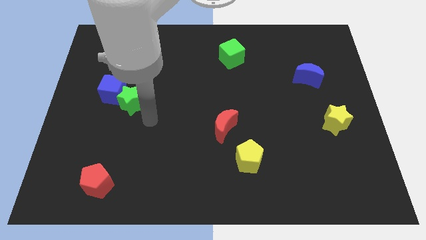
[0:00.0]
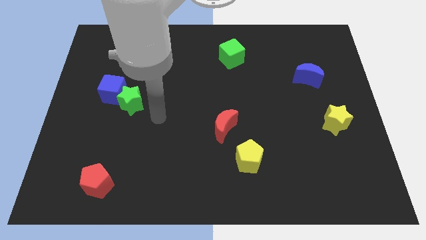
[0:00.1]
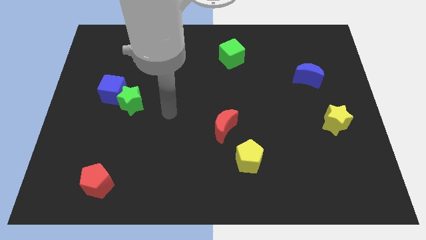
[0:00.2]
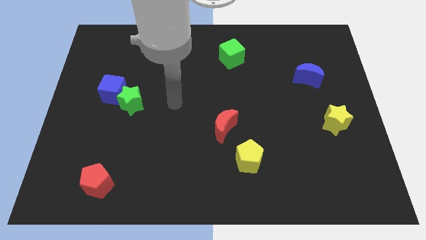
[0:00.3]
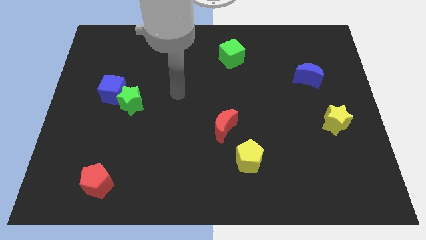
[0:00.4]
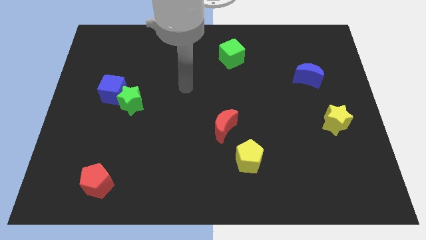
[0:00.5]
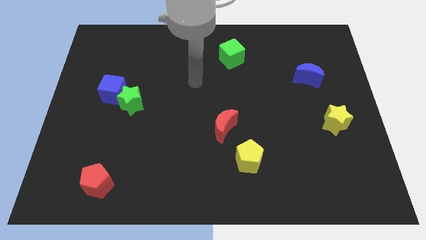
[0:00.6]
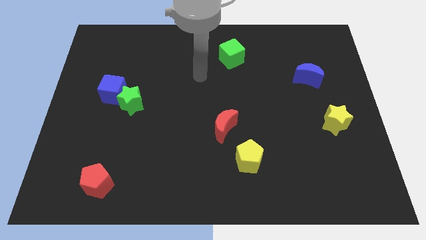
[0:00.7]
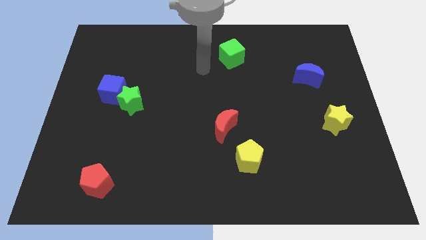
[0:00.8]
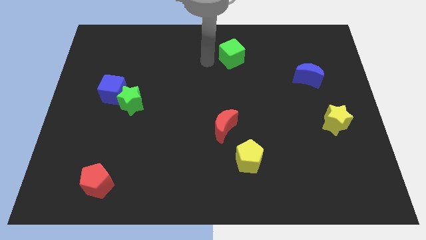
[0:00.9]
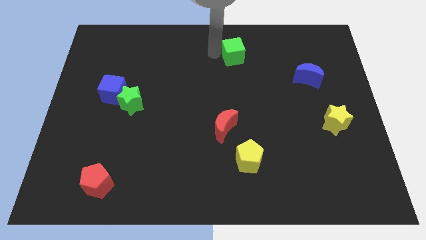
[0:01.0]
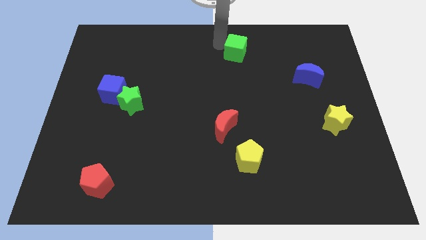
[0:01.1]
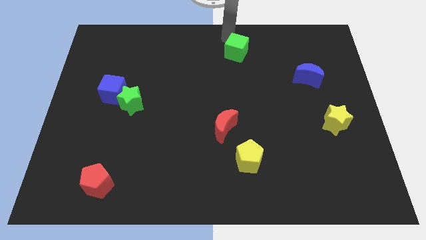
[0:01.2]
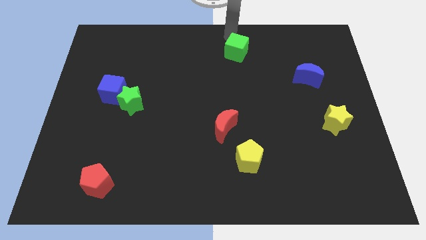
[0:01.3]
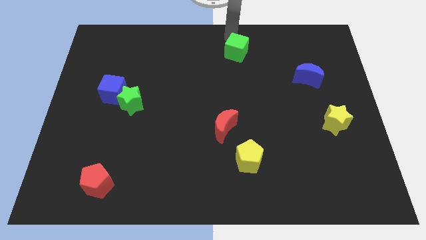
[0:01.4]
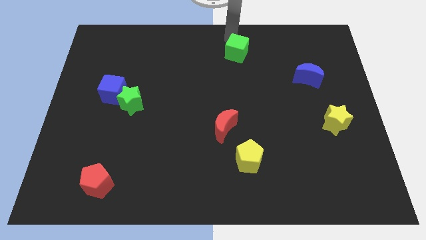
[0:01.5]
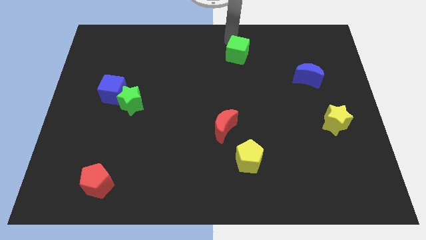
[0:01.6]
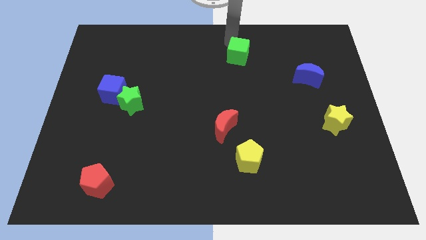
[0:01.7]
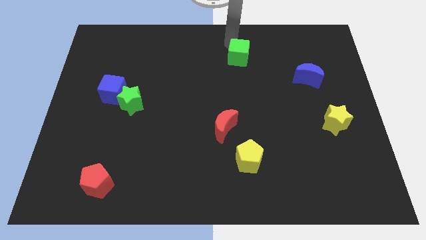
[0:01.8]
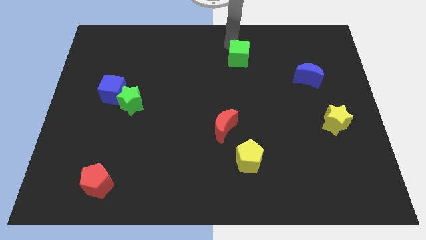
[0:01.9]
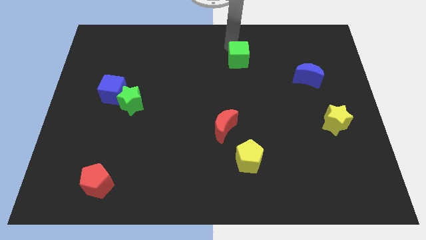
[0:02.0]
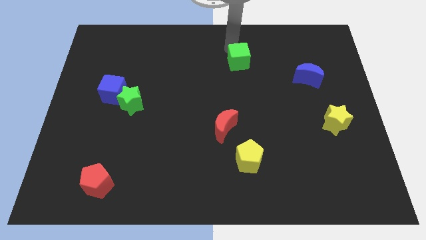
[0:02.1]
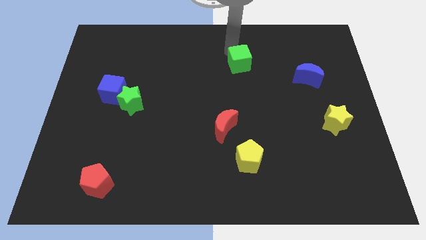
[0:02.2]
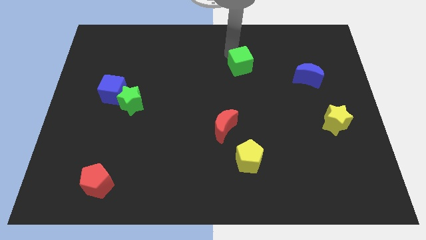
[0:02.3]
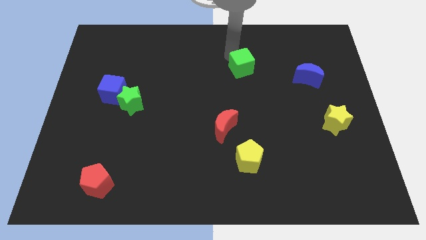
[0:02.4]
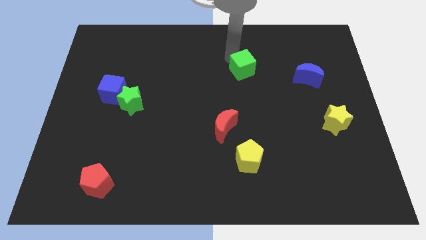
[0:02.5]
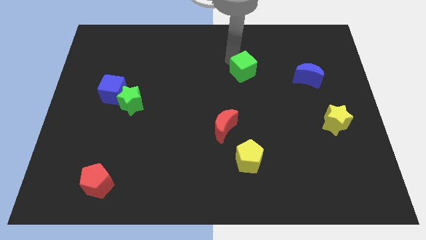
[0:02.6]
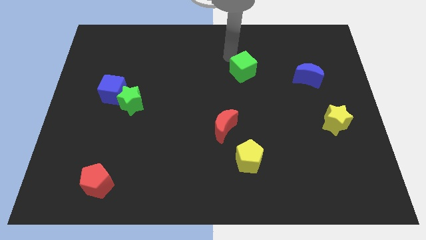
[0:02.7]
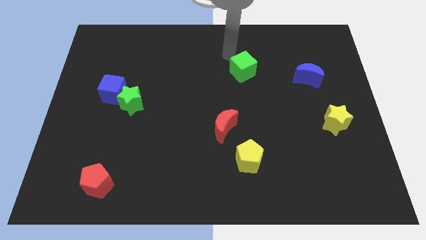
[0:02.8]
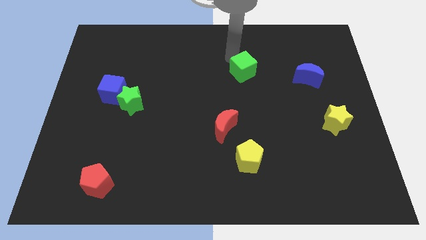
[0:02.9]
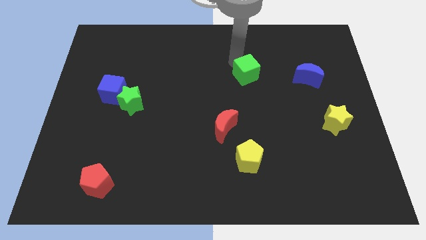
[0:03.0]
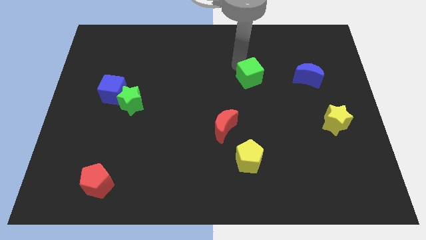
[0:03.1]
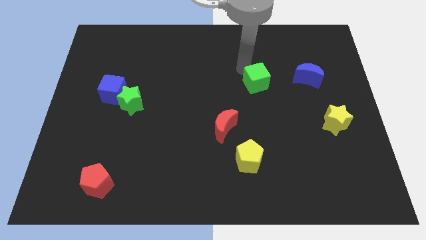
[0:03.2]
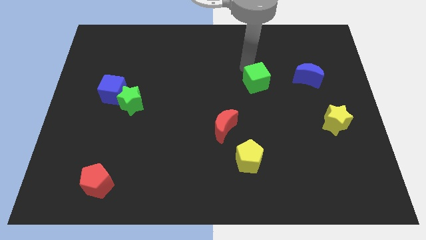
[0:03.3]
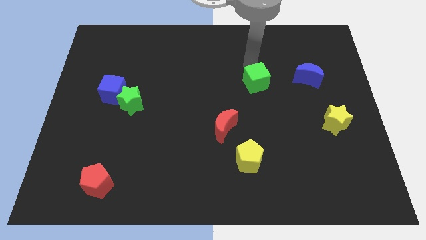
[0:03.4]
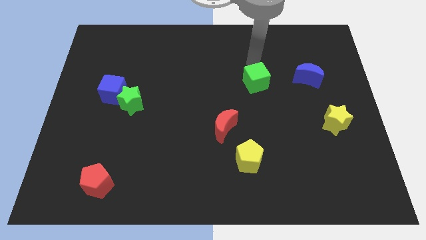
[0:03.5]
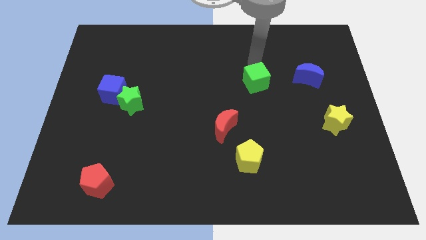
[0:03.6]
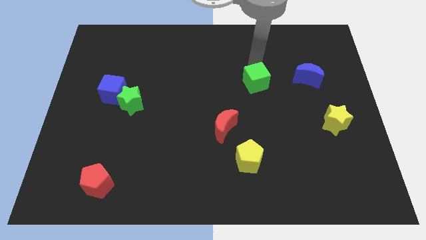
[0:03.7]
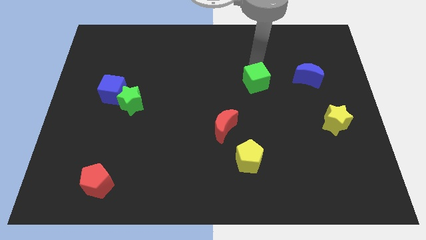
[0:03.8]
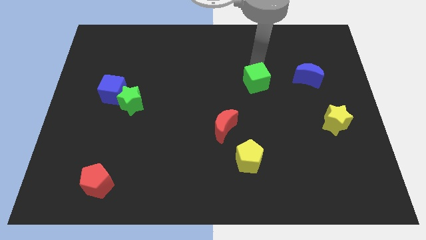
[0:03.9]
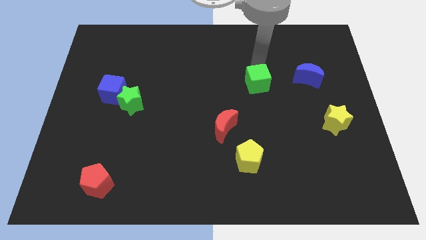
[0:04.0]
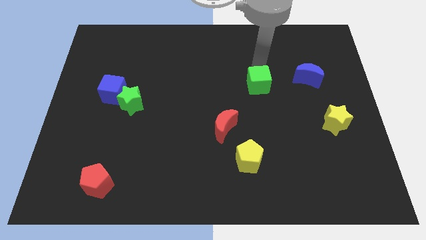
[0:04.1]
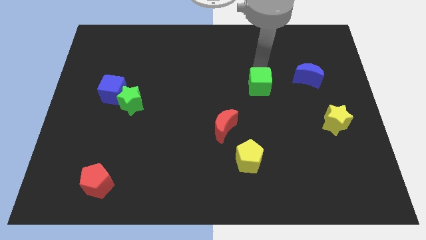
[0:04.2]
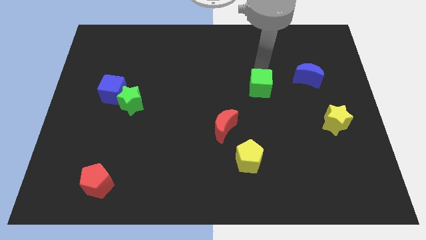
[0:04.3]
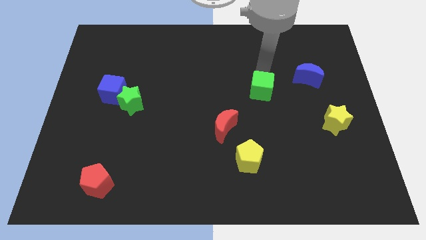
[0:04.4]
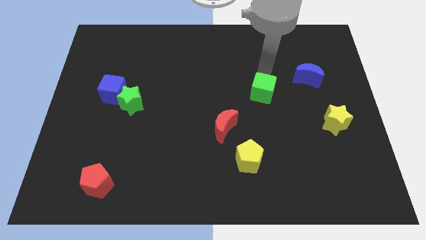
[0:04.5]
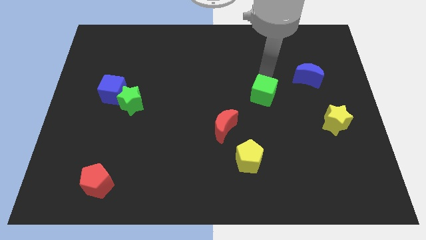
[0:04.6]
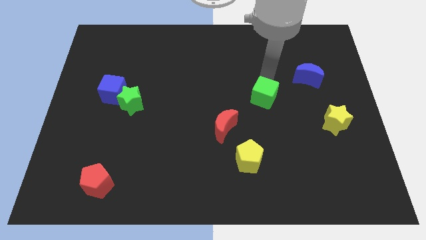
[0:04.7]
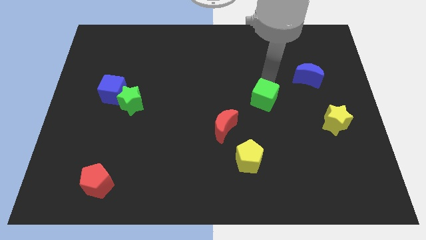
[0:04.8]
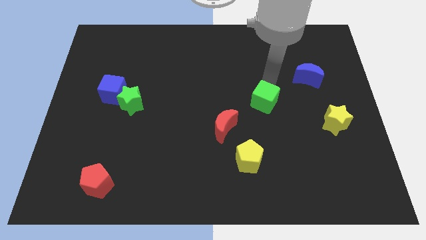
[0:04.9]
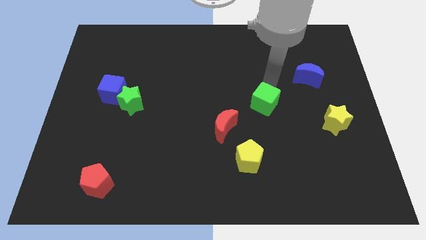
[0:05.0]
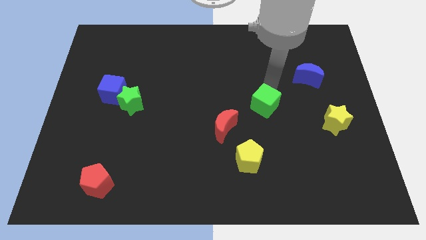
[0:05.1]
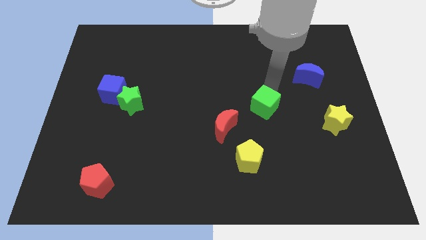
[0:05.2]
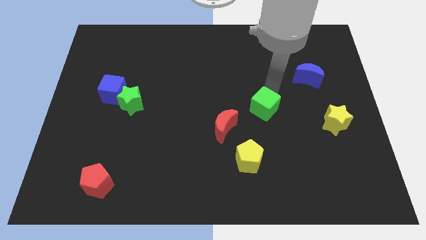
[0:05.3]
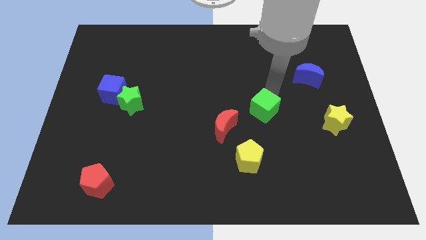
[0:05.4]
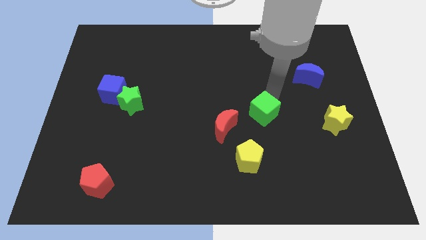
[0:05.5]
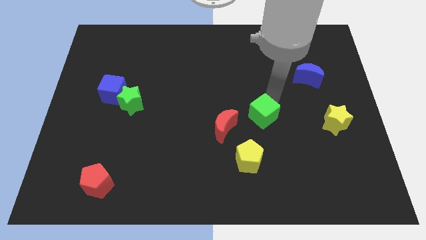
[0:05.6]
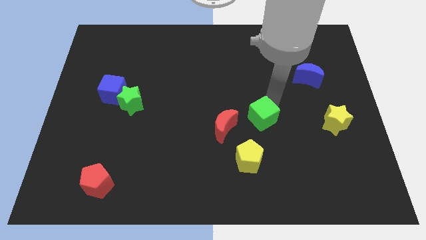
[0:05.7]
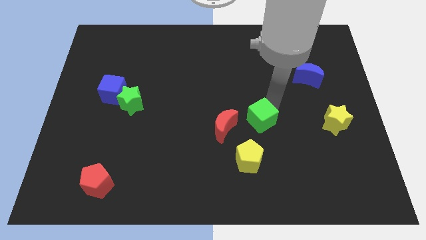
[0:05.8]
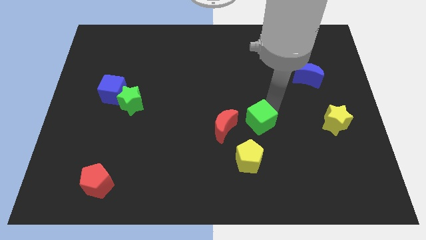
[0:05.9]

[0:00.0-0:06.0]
slide the green cube diagonally up and to the right of the yellow pentagon

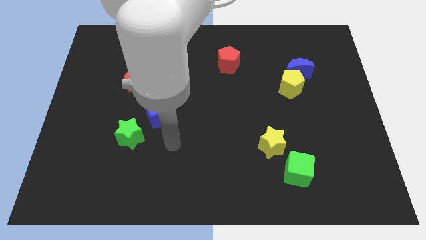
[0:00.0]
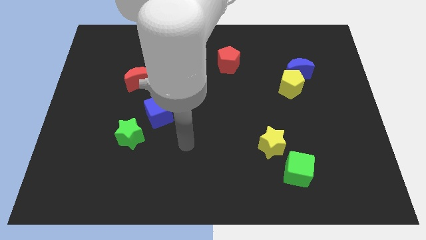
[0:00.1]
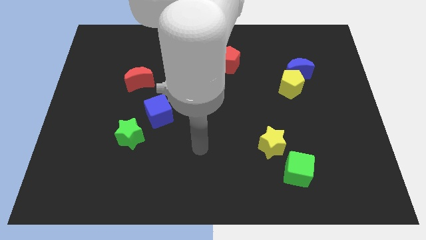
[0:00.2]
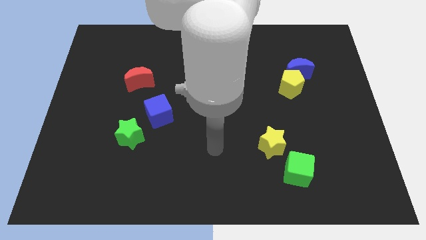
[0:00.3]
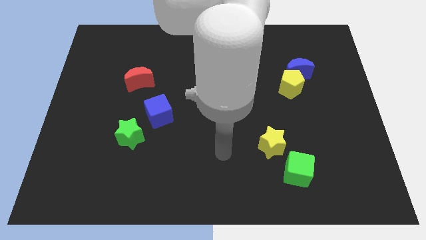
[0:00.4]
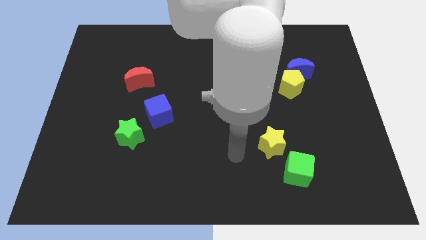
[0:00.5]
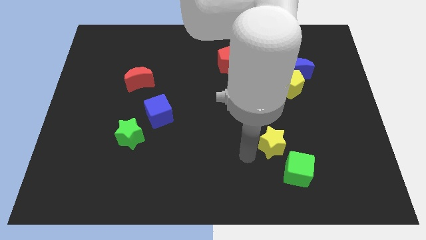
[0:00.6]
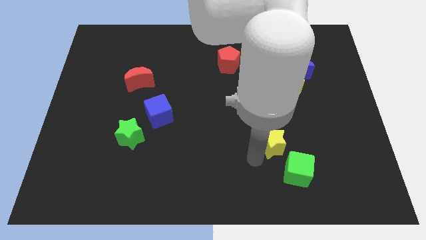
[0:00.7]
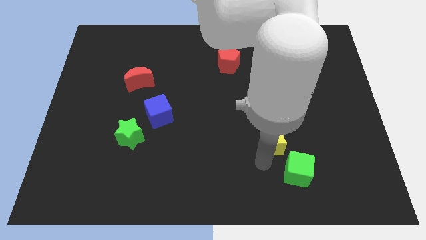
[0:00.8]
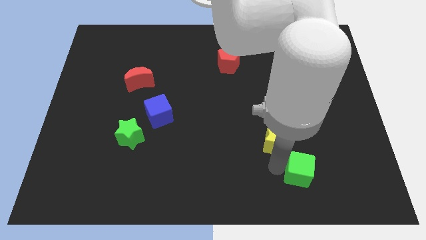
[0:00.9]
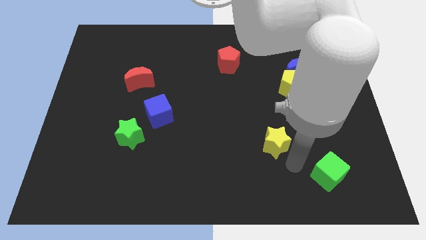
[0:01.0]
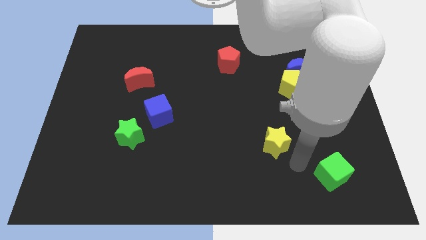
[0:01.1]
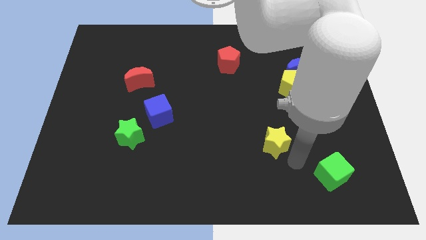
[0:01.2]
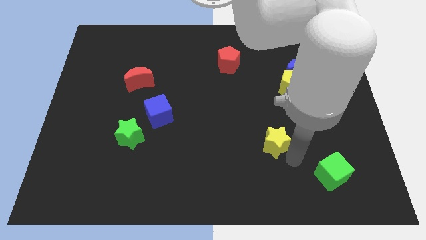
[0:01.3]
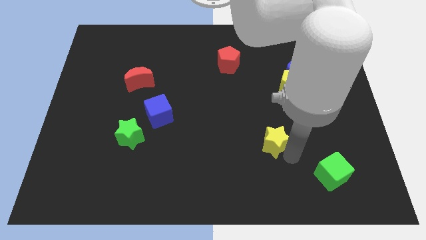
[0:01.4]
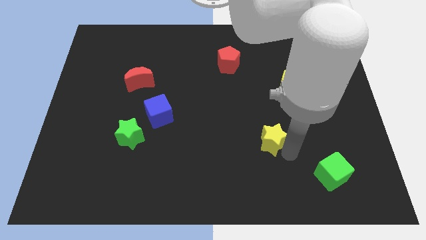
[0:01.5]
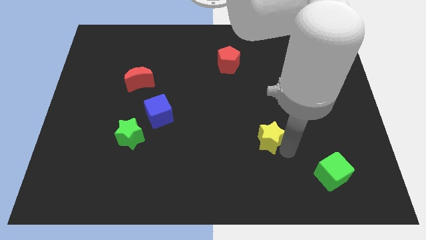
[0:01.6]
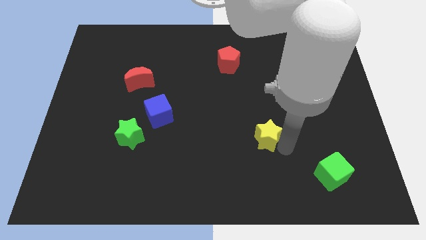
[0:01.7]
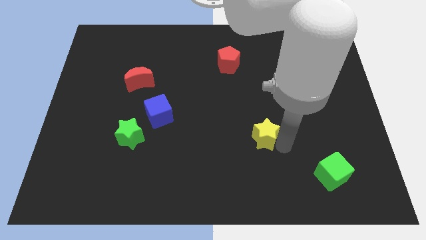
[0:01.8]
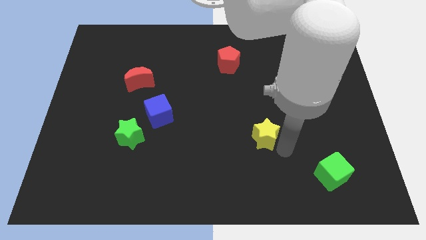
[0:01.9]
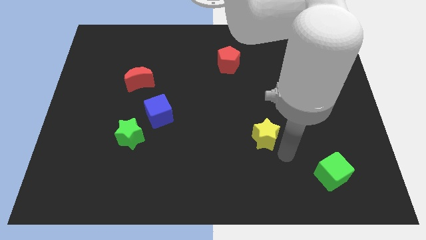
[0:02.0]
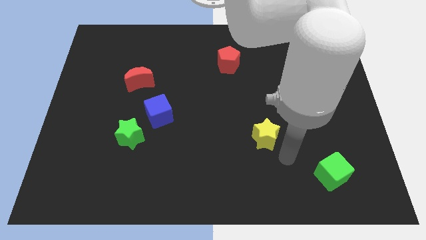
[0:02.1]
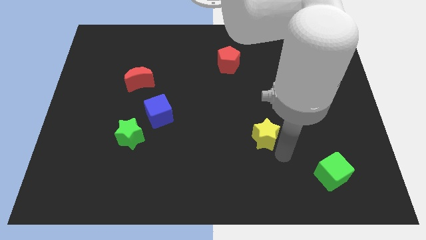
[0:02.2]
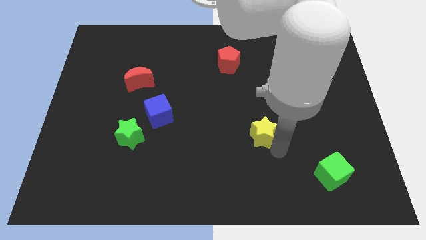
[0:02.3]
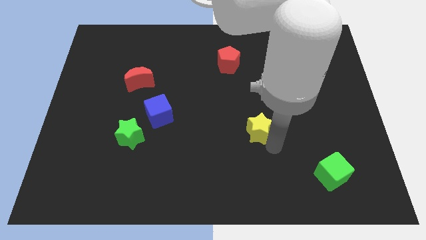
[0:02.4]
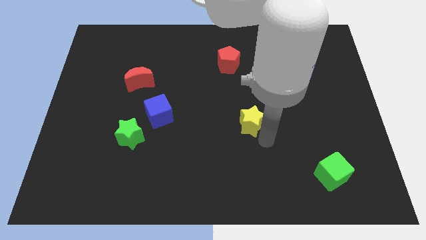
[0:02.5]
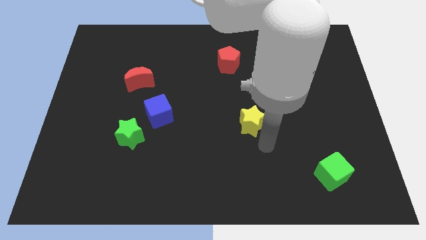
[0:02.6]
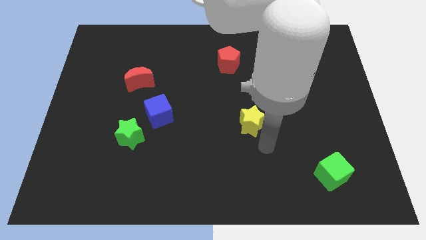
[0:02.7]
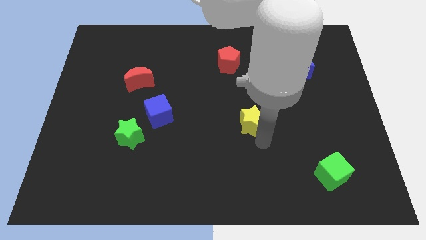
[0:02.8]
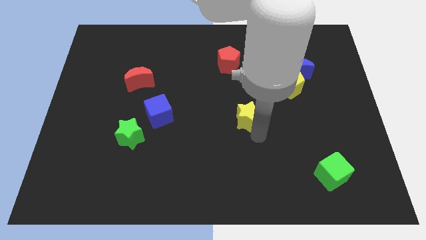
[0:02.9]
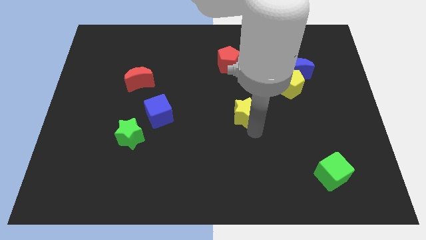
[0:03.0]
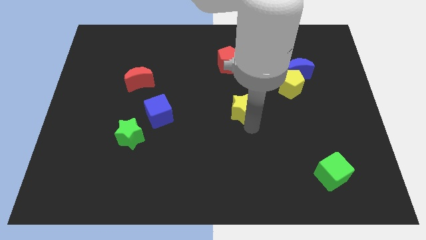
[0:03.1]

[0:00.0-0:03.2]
push the yellow star to the bottom of the red pentagon
